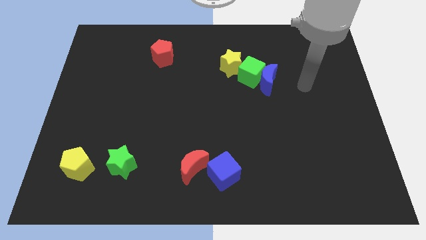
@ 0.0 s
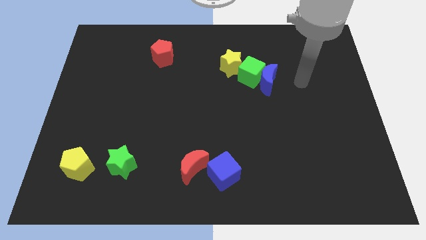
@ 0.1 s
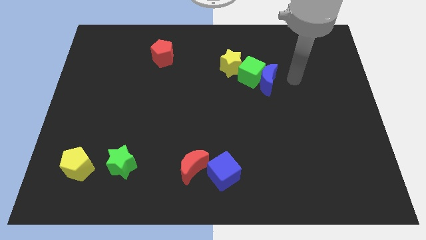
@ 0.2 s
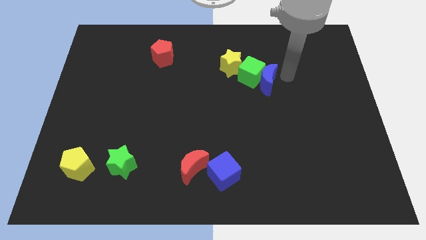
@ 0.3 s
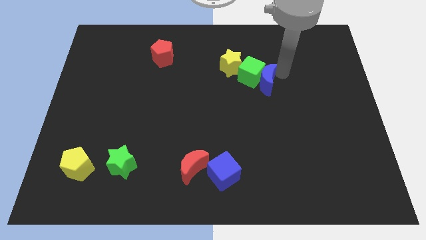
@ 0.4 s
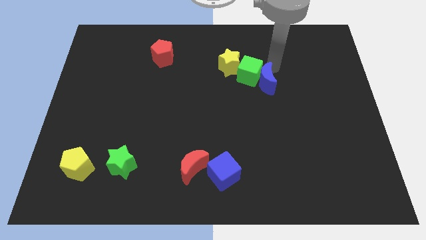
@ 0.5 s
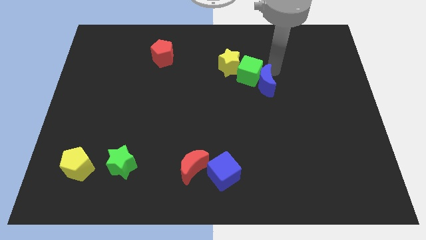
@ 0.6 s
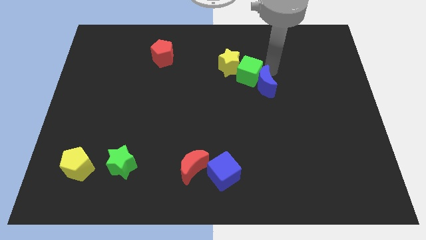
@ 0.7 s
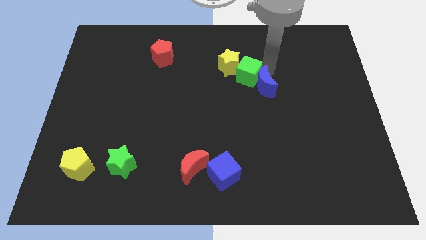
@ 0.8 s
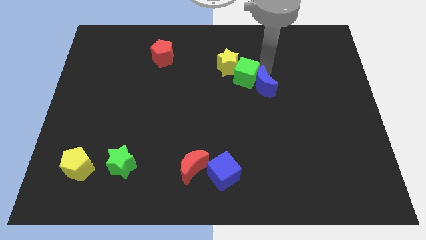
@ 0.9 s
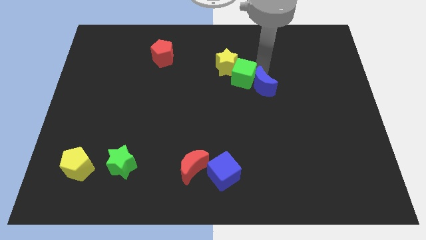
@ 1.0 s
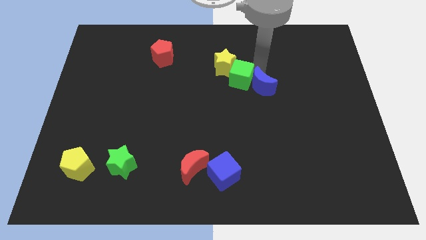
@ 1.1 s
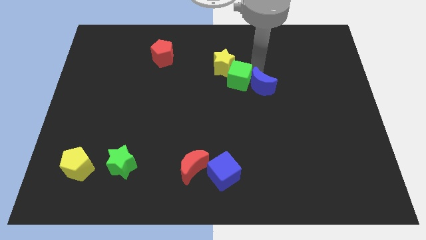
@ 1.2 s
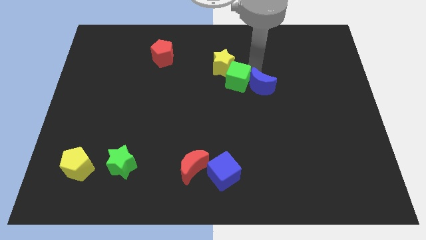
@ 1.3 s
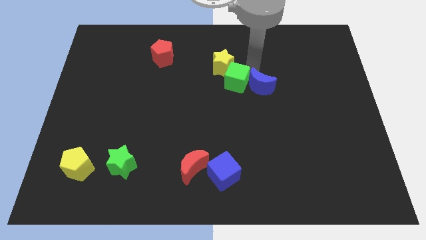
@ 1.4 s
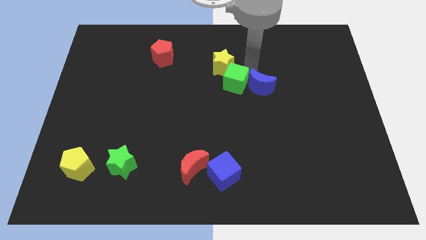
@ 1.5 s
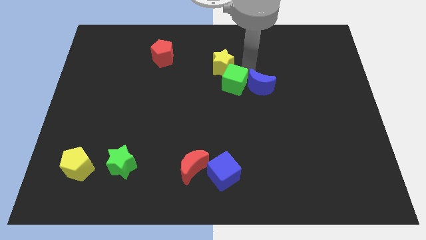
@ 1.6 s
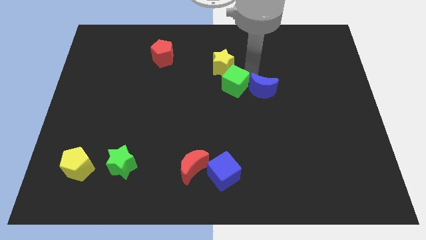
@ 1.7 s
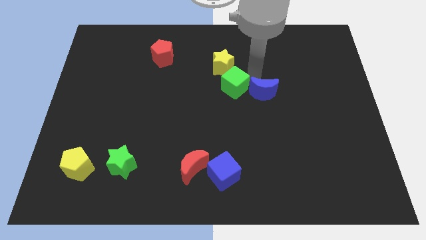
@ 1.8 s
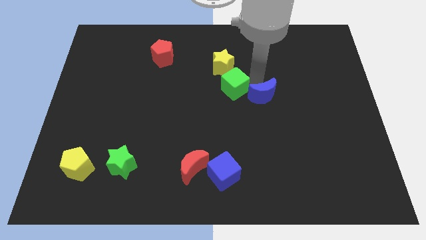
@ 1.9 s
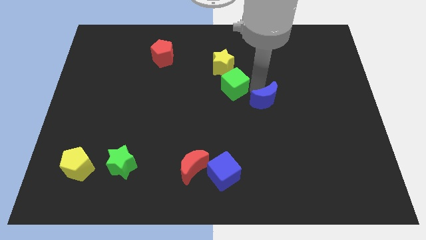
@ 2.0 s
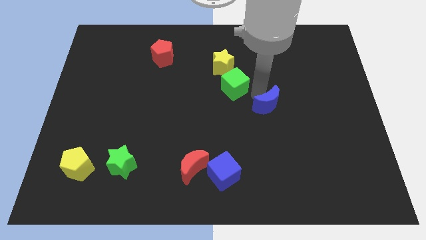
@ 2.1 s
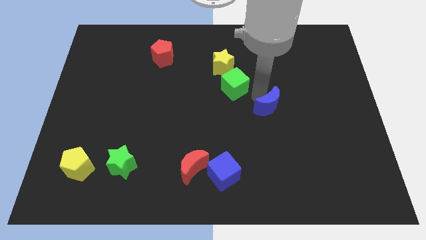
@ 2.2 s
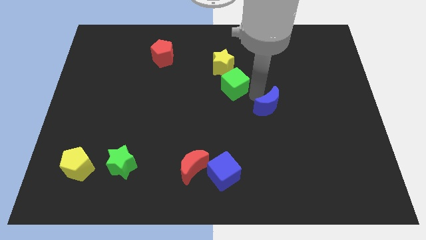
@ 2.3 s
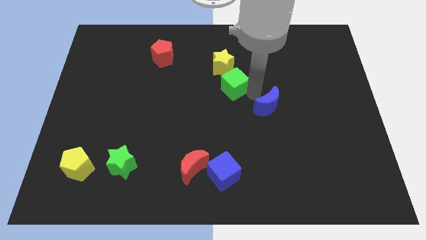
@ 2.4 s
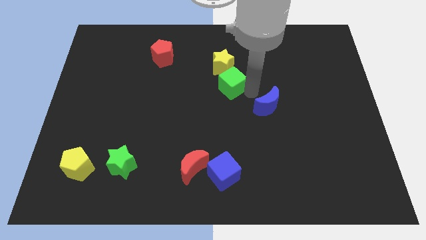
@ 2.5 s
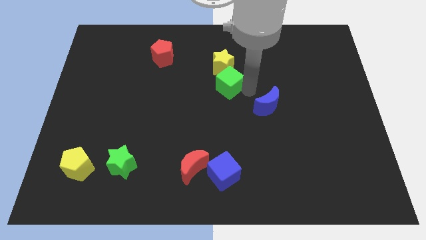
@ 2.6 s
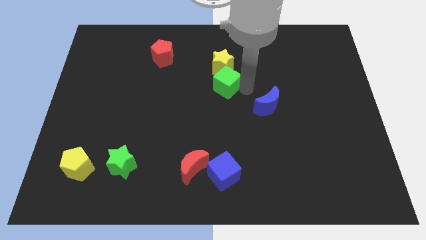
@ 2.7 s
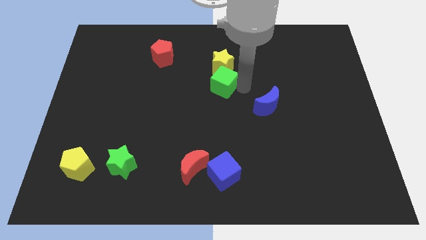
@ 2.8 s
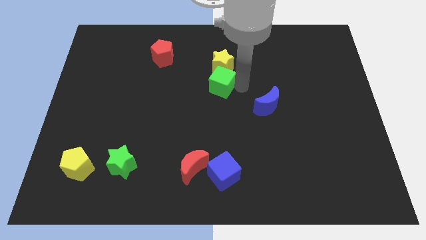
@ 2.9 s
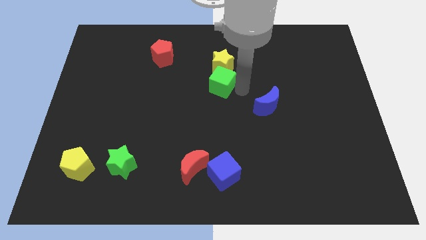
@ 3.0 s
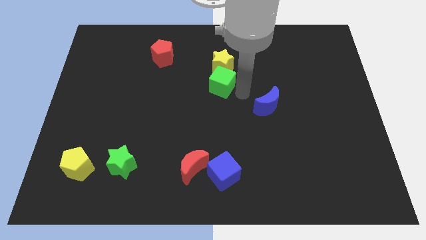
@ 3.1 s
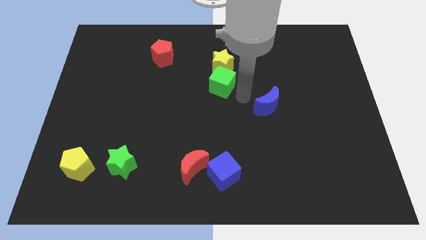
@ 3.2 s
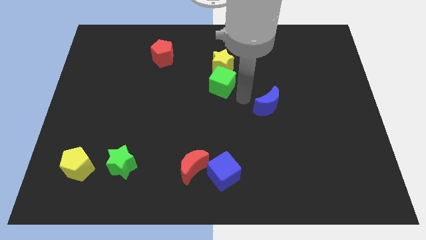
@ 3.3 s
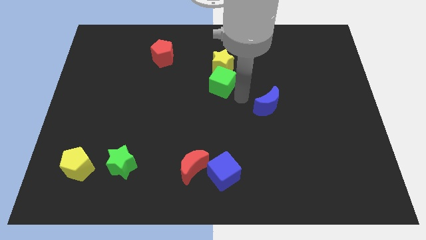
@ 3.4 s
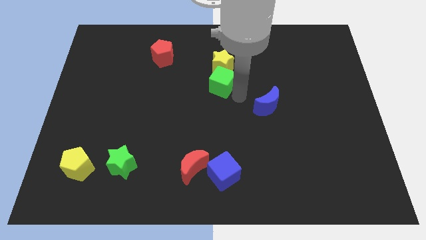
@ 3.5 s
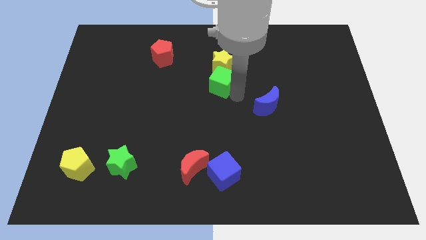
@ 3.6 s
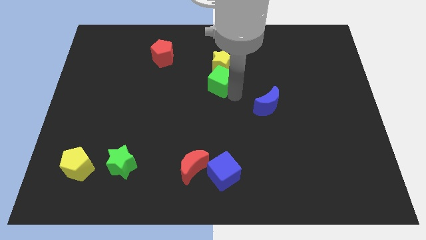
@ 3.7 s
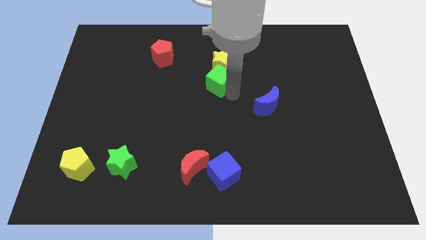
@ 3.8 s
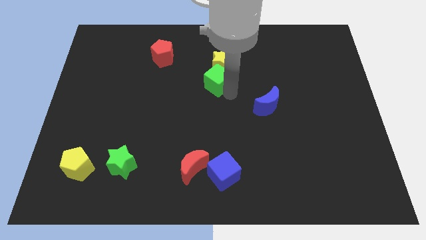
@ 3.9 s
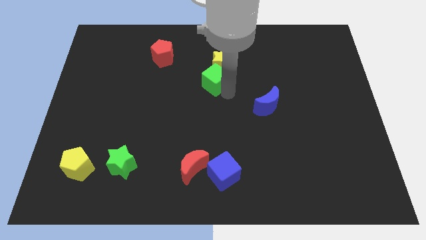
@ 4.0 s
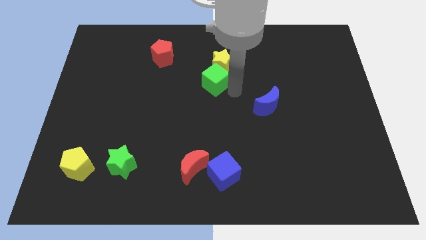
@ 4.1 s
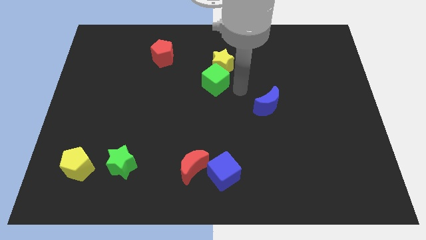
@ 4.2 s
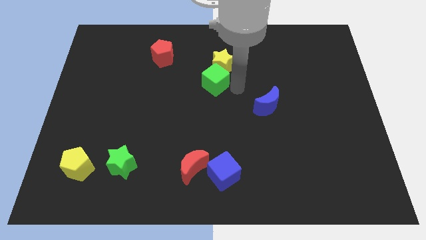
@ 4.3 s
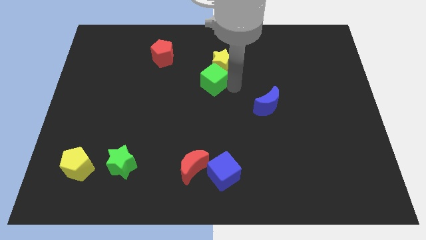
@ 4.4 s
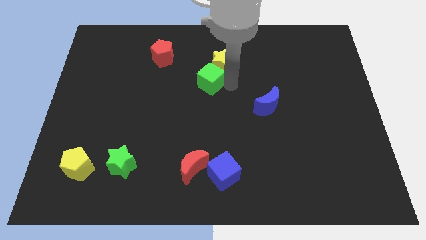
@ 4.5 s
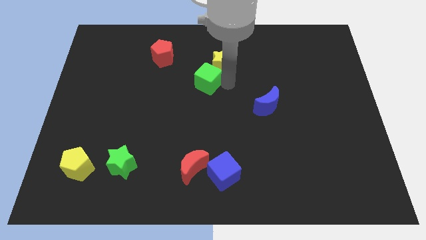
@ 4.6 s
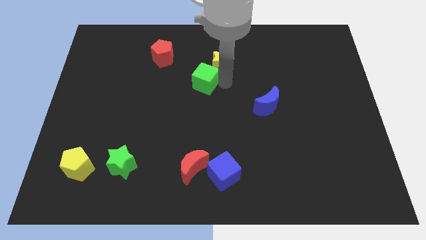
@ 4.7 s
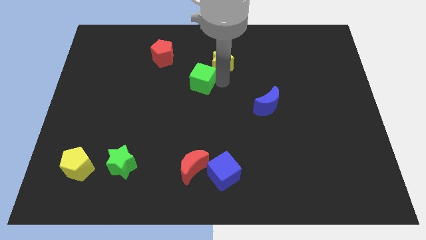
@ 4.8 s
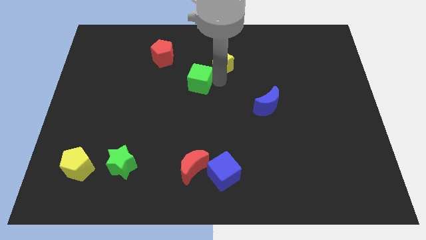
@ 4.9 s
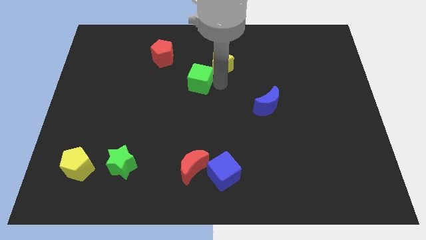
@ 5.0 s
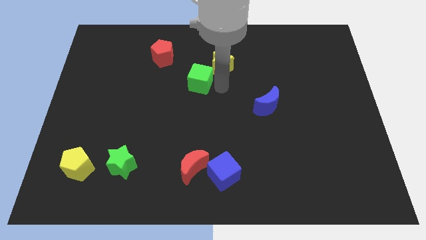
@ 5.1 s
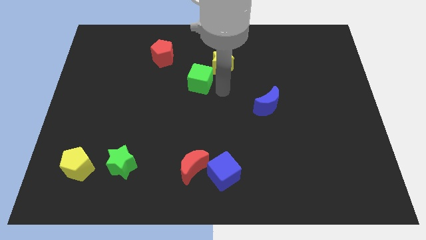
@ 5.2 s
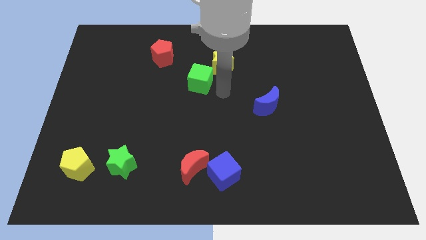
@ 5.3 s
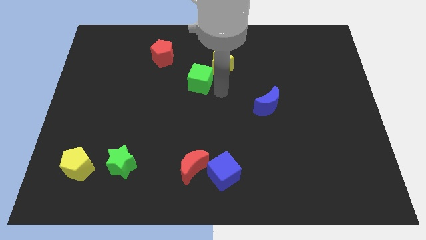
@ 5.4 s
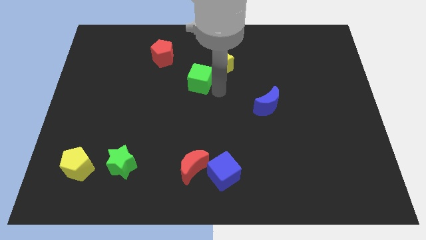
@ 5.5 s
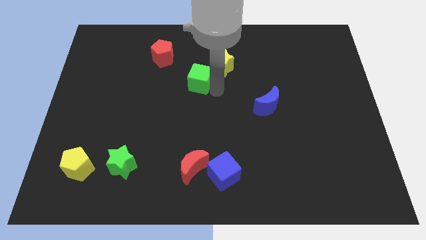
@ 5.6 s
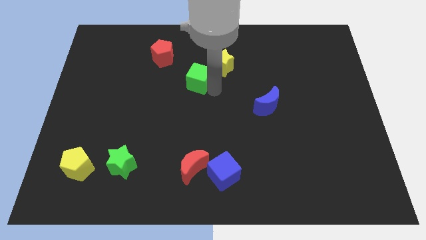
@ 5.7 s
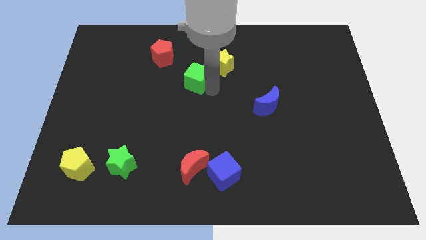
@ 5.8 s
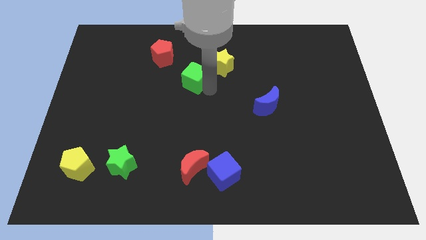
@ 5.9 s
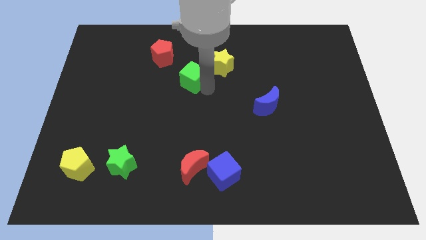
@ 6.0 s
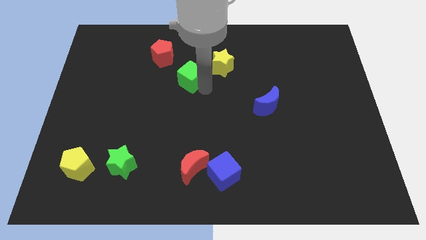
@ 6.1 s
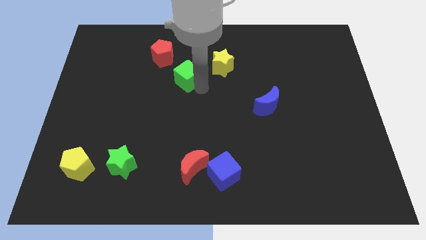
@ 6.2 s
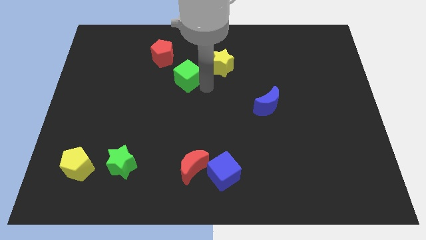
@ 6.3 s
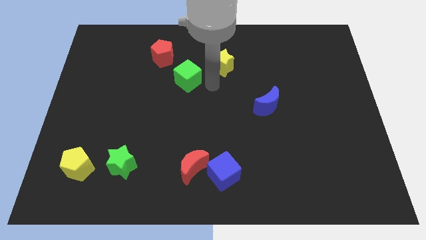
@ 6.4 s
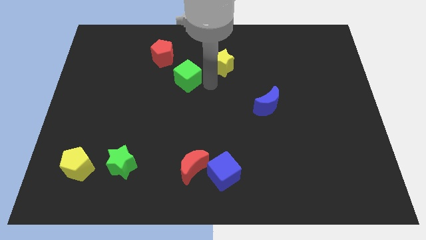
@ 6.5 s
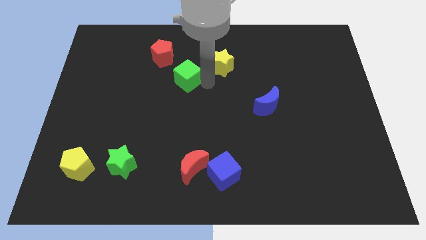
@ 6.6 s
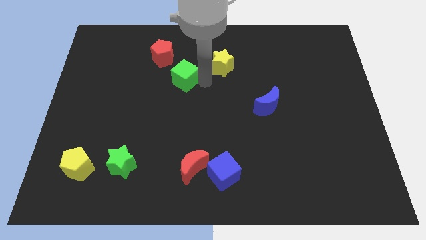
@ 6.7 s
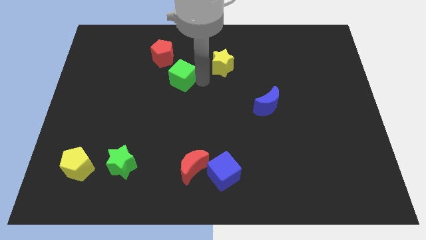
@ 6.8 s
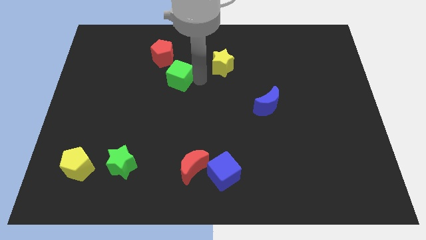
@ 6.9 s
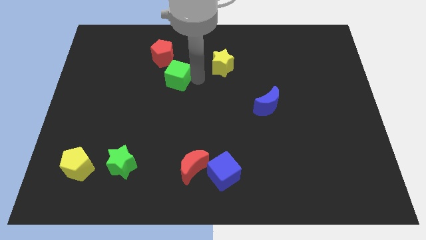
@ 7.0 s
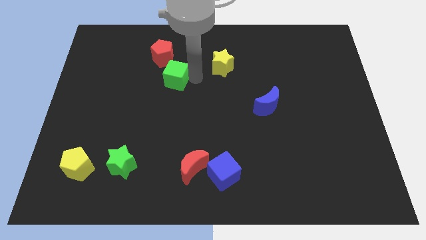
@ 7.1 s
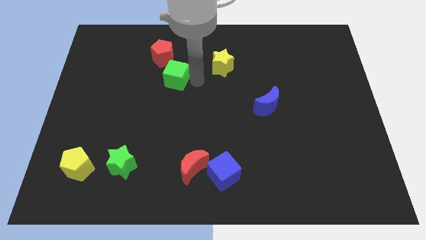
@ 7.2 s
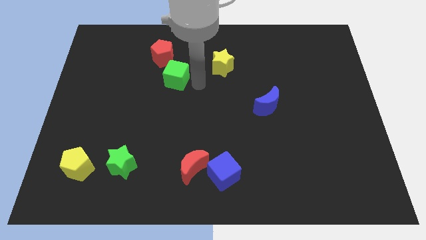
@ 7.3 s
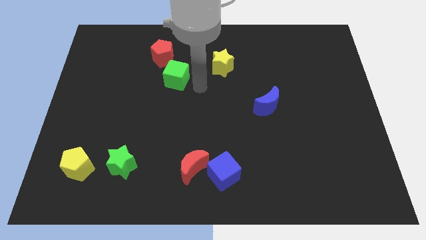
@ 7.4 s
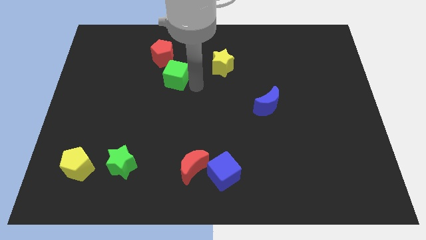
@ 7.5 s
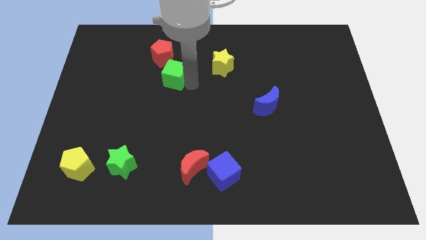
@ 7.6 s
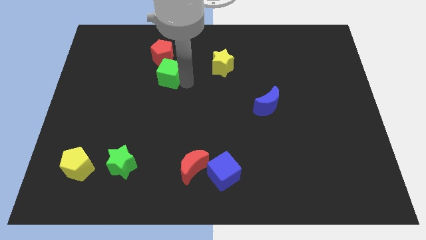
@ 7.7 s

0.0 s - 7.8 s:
move the green cube left
